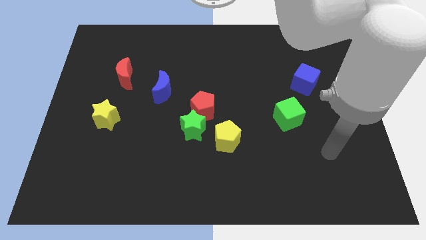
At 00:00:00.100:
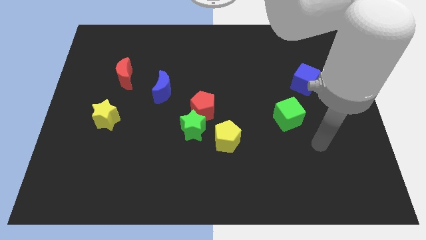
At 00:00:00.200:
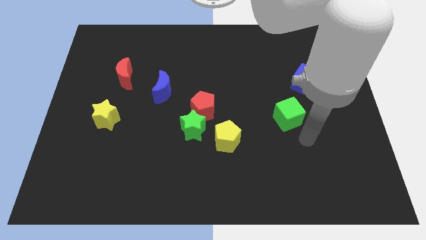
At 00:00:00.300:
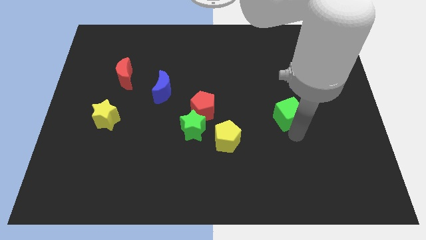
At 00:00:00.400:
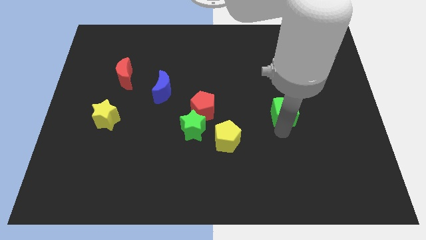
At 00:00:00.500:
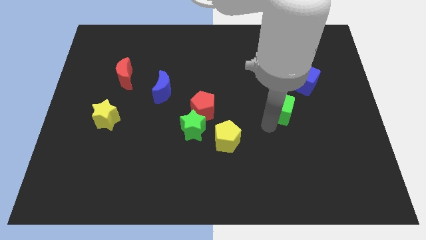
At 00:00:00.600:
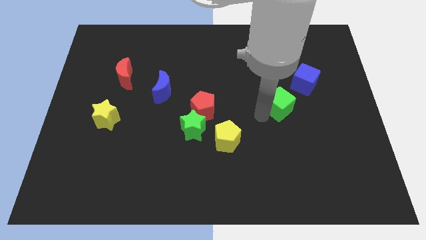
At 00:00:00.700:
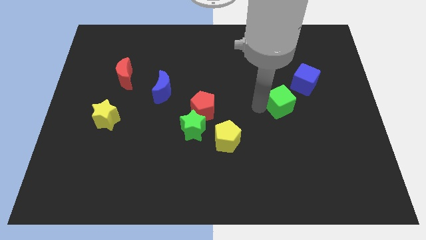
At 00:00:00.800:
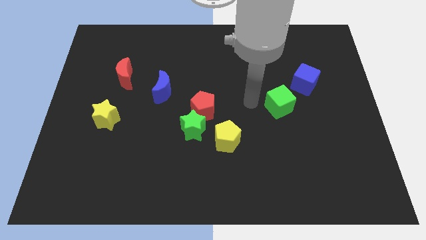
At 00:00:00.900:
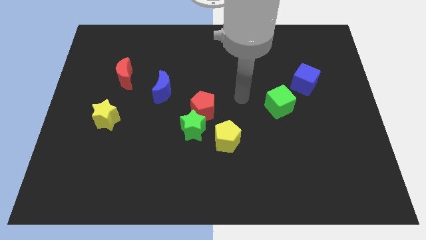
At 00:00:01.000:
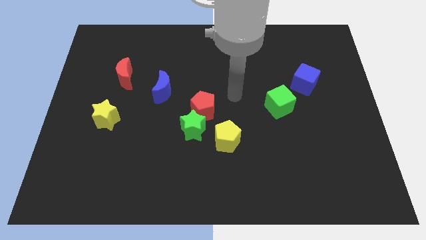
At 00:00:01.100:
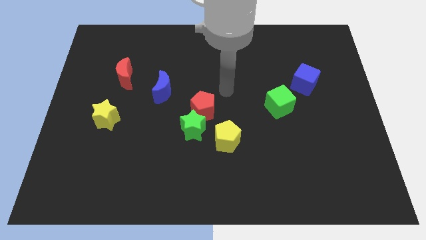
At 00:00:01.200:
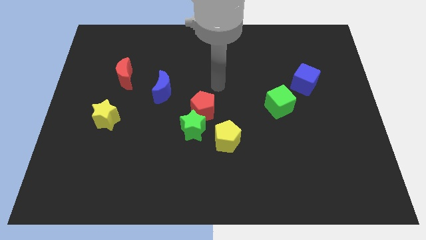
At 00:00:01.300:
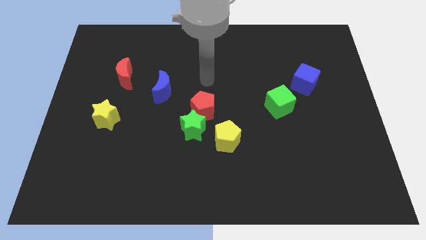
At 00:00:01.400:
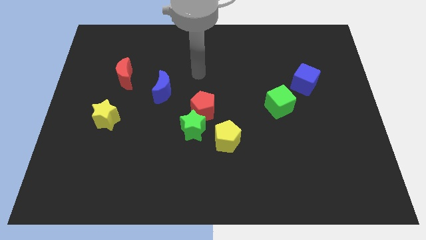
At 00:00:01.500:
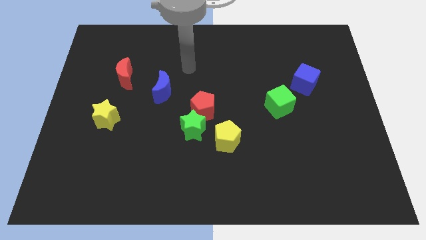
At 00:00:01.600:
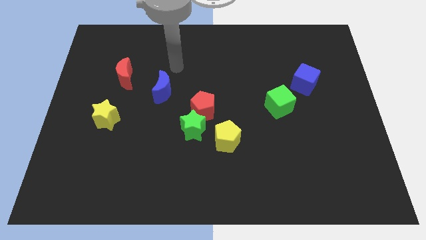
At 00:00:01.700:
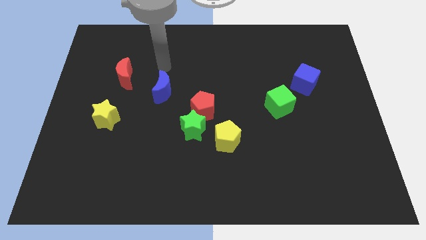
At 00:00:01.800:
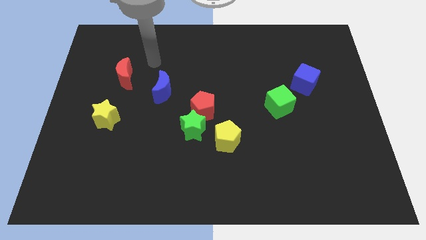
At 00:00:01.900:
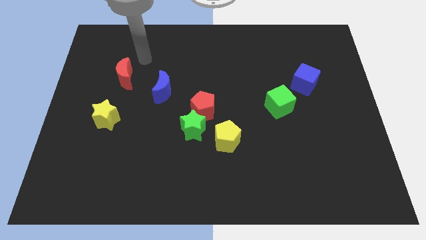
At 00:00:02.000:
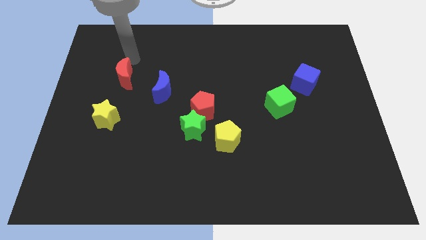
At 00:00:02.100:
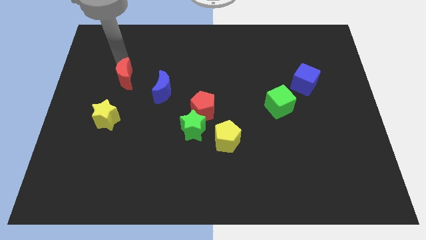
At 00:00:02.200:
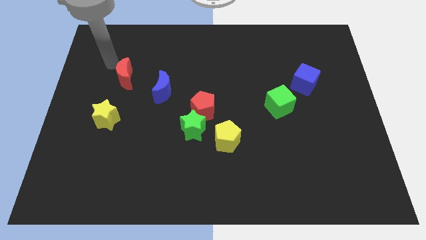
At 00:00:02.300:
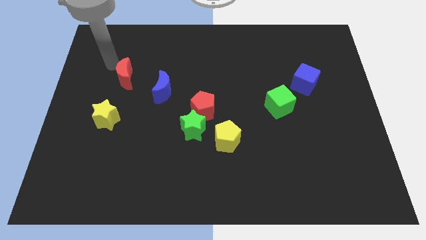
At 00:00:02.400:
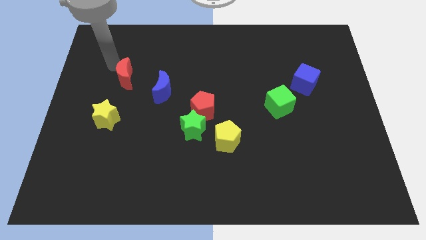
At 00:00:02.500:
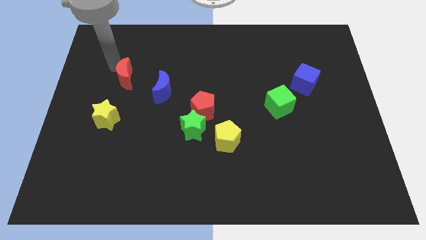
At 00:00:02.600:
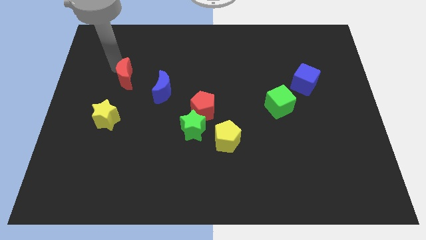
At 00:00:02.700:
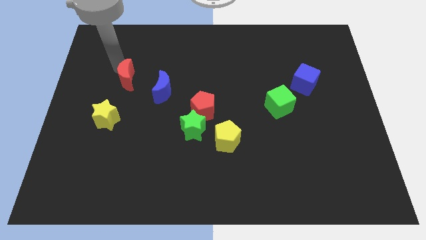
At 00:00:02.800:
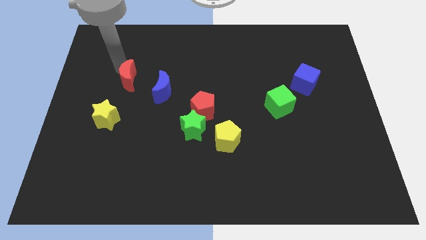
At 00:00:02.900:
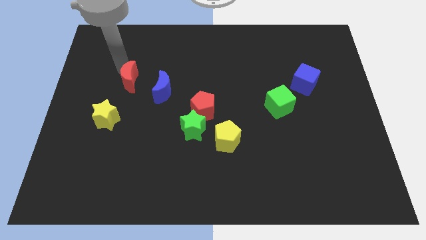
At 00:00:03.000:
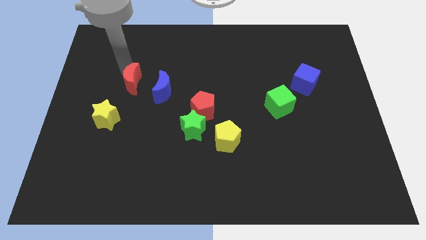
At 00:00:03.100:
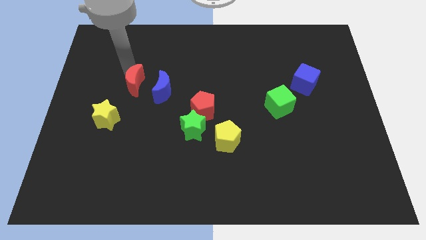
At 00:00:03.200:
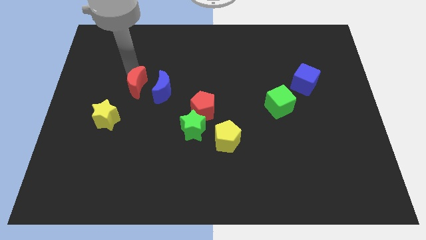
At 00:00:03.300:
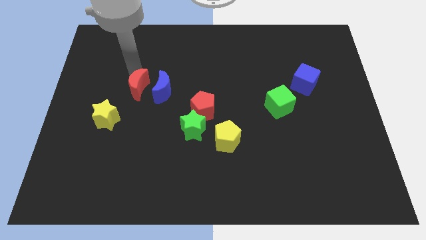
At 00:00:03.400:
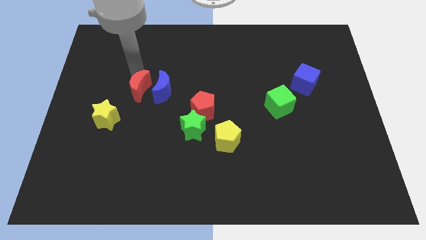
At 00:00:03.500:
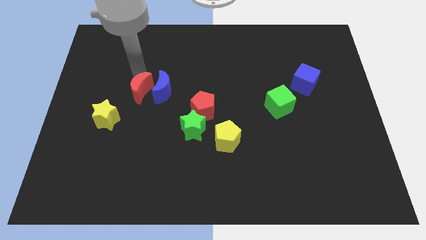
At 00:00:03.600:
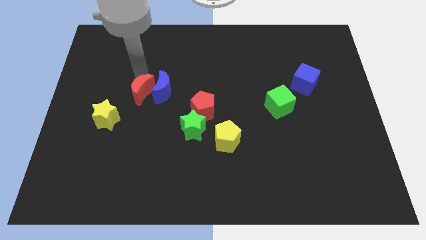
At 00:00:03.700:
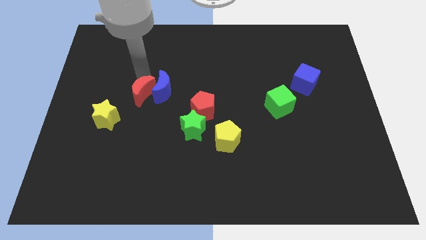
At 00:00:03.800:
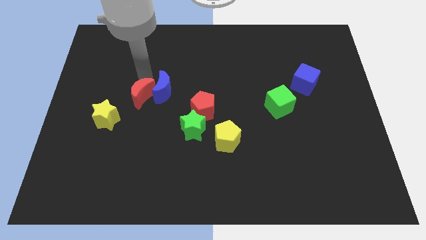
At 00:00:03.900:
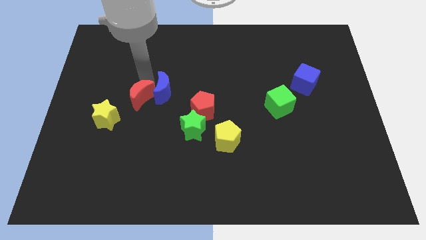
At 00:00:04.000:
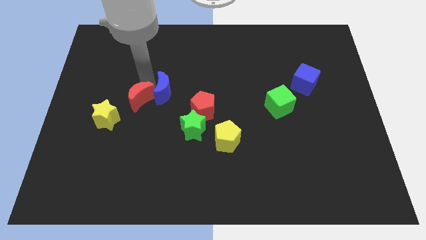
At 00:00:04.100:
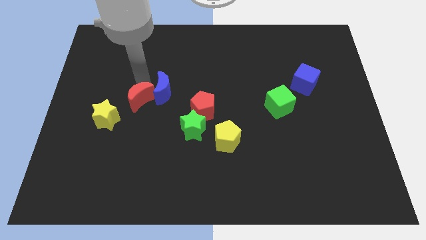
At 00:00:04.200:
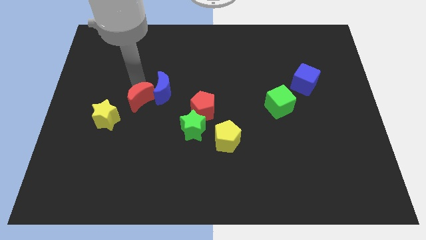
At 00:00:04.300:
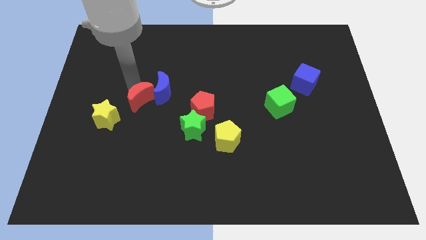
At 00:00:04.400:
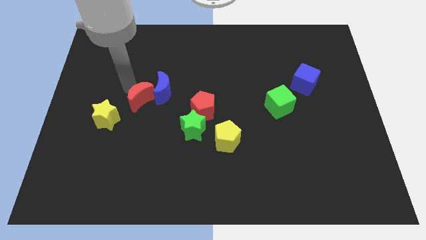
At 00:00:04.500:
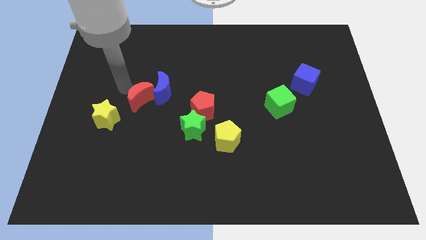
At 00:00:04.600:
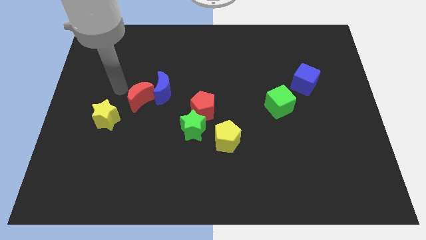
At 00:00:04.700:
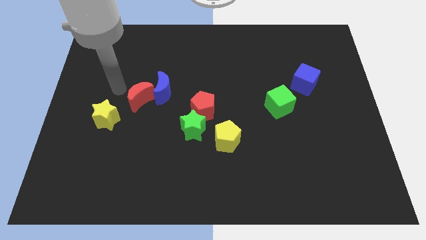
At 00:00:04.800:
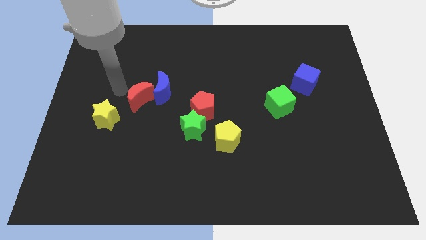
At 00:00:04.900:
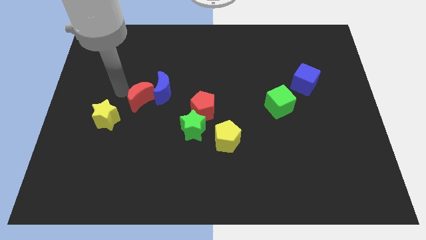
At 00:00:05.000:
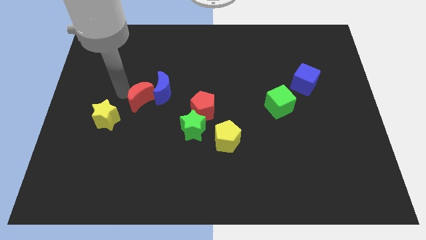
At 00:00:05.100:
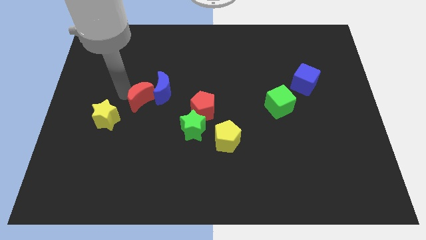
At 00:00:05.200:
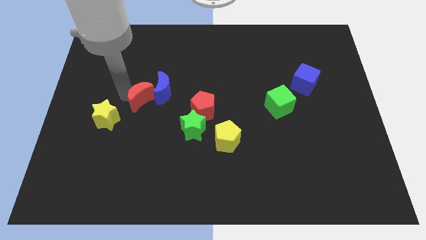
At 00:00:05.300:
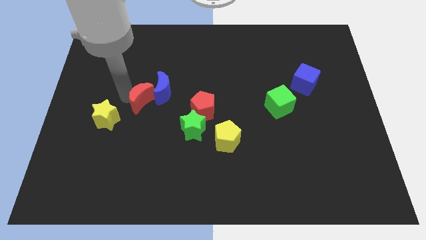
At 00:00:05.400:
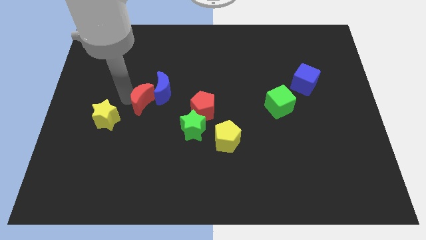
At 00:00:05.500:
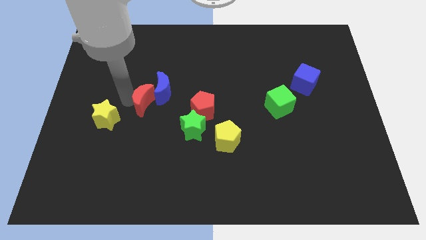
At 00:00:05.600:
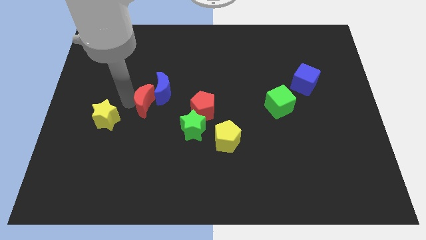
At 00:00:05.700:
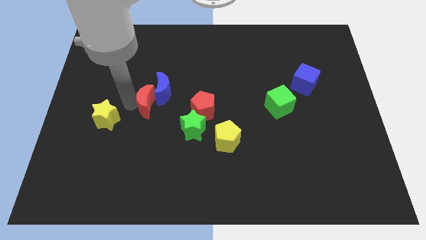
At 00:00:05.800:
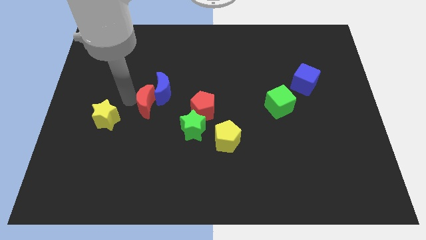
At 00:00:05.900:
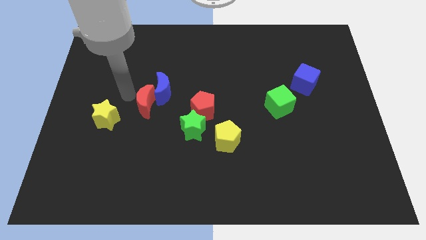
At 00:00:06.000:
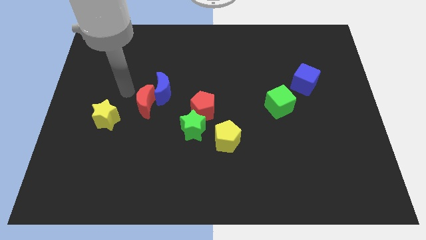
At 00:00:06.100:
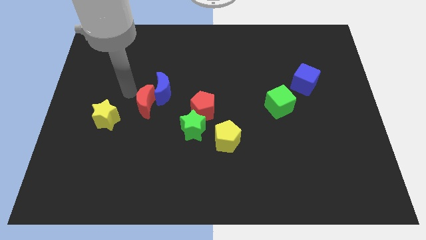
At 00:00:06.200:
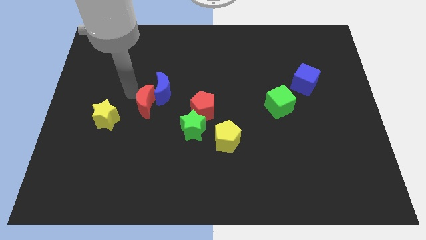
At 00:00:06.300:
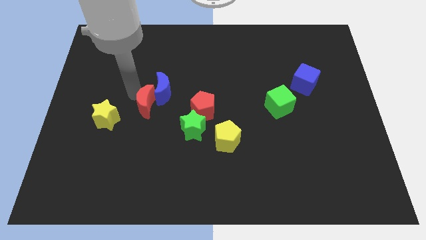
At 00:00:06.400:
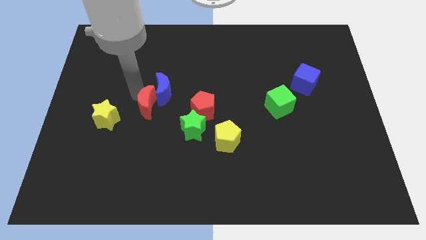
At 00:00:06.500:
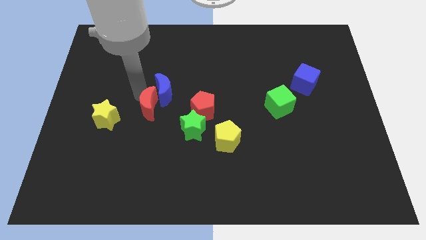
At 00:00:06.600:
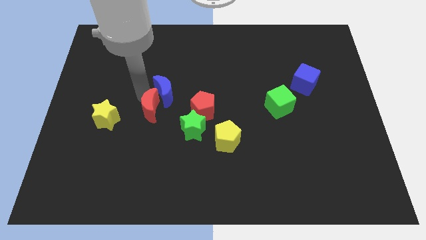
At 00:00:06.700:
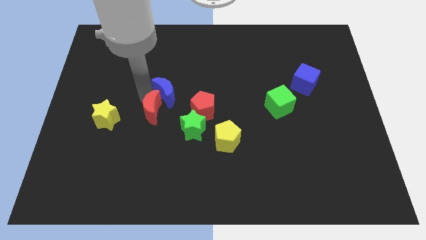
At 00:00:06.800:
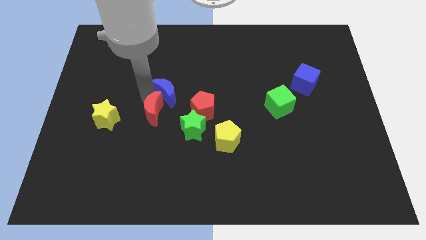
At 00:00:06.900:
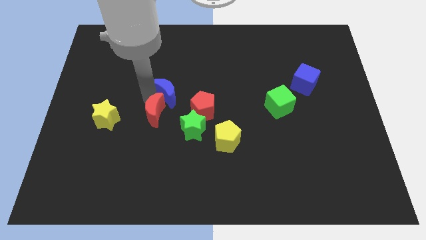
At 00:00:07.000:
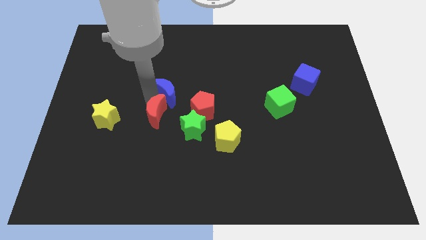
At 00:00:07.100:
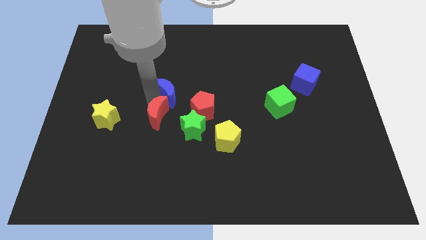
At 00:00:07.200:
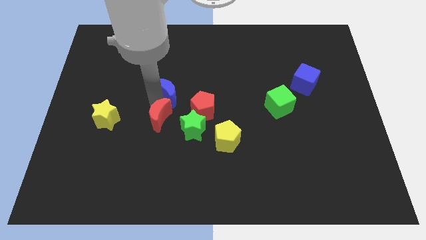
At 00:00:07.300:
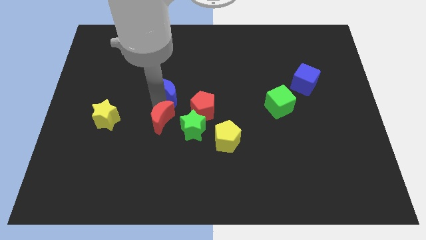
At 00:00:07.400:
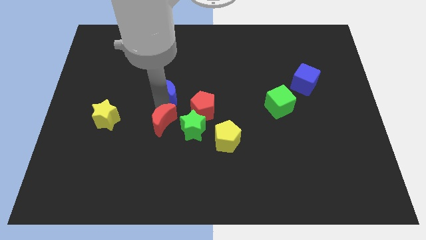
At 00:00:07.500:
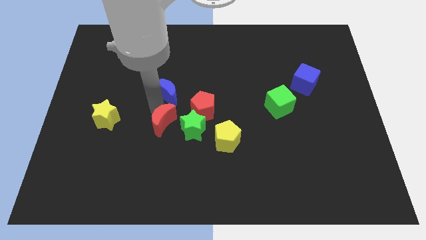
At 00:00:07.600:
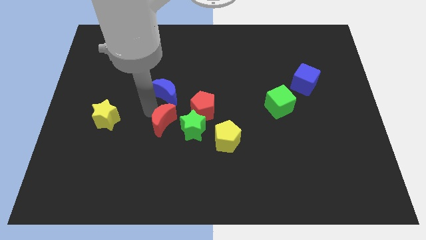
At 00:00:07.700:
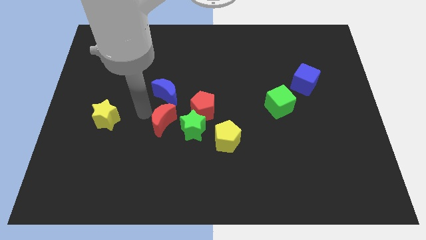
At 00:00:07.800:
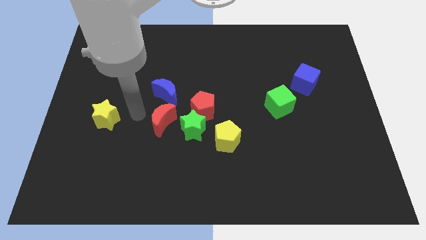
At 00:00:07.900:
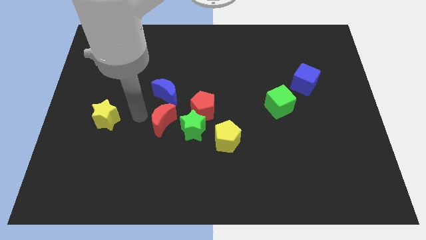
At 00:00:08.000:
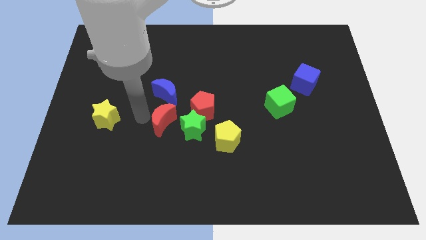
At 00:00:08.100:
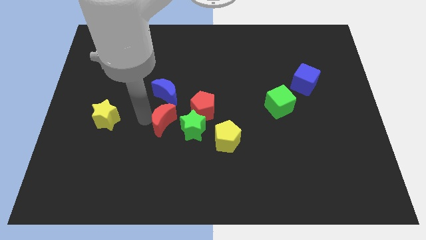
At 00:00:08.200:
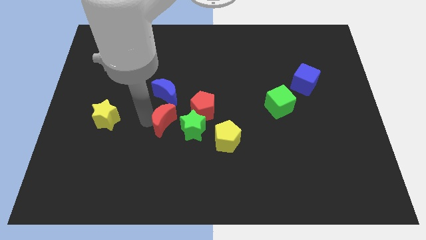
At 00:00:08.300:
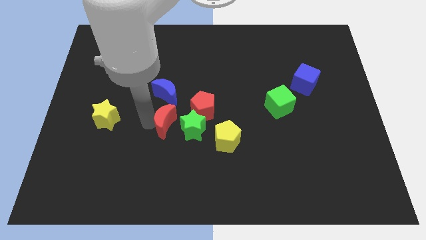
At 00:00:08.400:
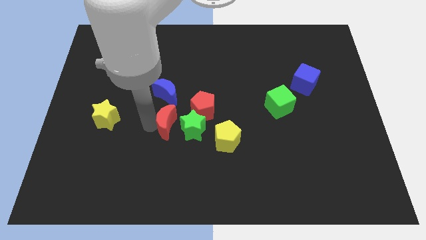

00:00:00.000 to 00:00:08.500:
push the red moon to the green star
